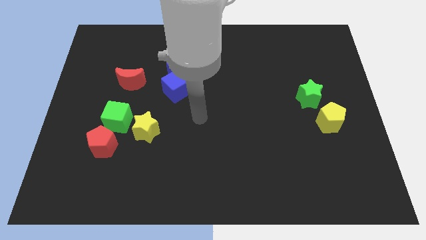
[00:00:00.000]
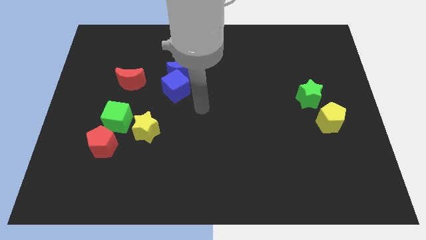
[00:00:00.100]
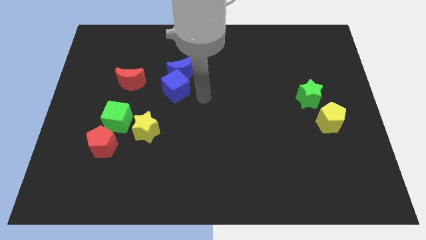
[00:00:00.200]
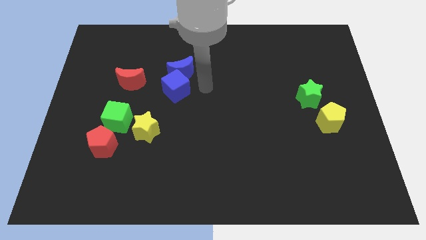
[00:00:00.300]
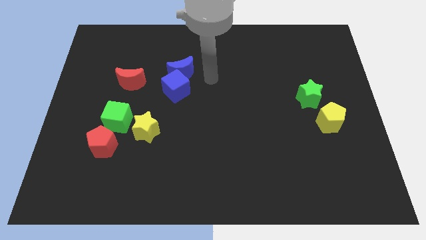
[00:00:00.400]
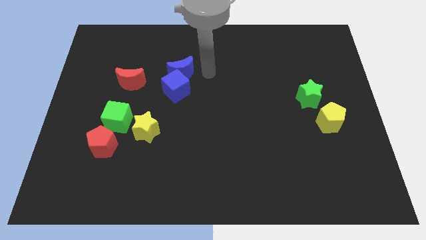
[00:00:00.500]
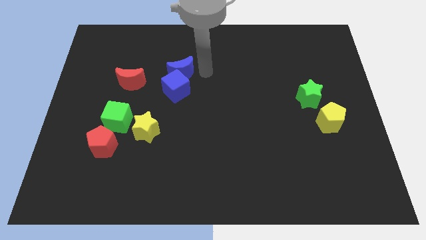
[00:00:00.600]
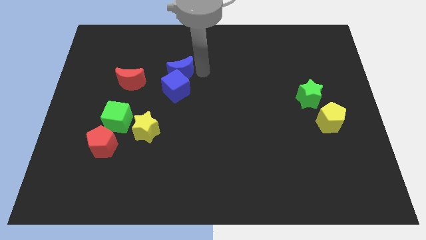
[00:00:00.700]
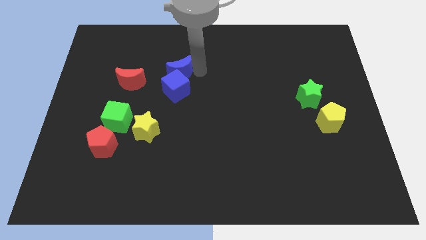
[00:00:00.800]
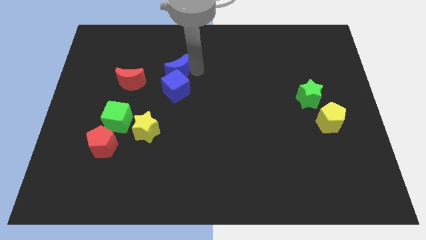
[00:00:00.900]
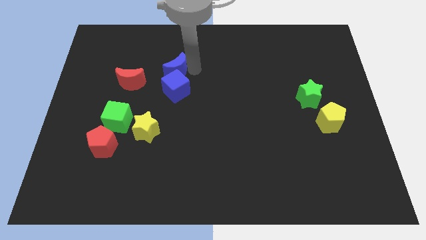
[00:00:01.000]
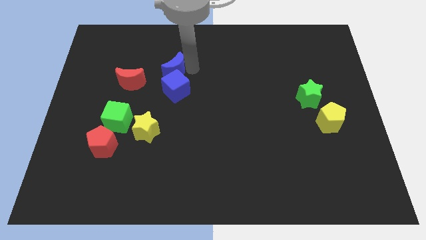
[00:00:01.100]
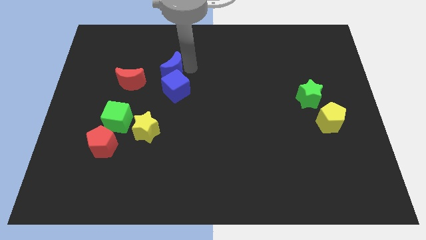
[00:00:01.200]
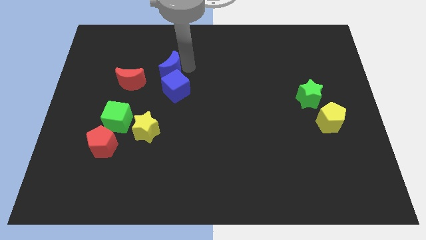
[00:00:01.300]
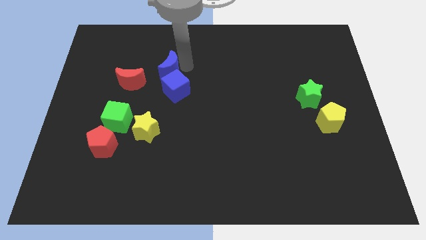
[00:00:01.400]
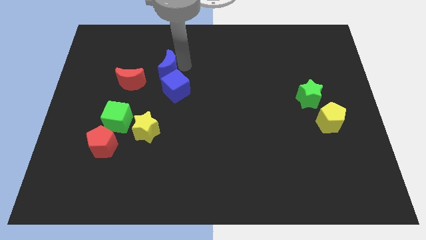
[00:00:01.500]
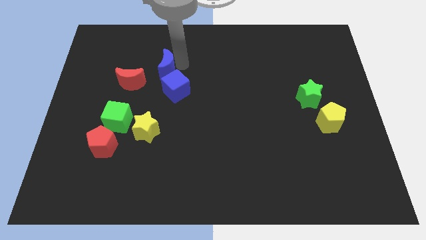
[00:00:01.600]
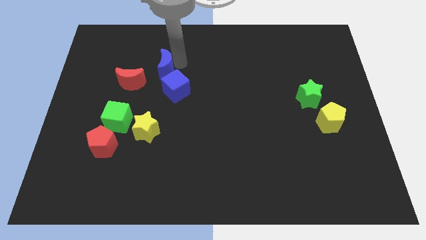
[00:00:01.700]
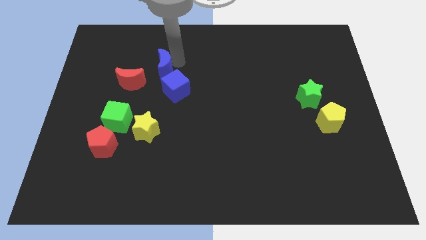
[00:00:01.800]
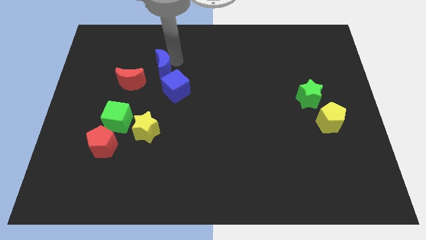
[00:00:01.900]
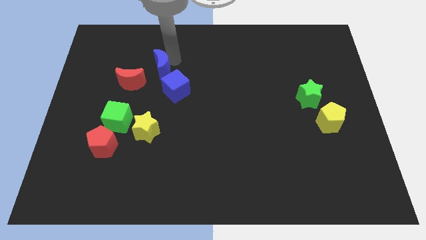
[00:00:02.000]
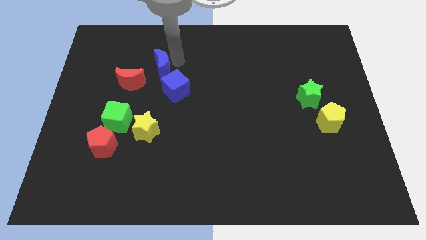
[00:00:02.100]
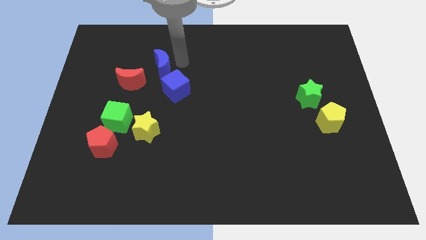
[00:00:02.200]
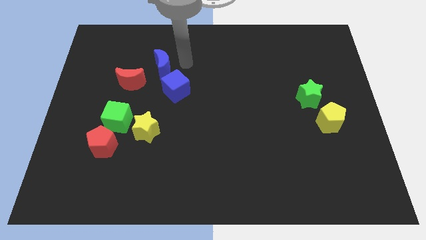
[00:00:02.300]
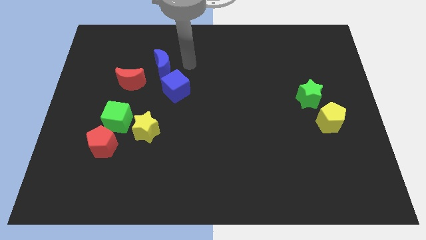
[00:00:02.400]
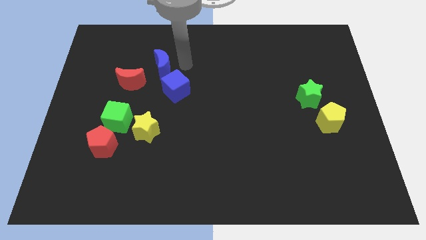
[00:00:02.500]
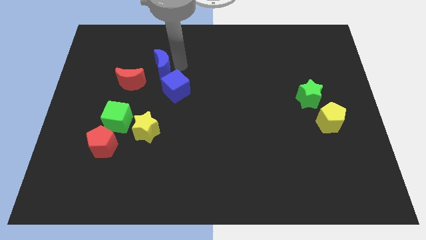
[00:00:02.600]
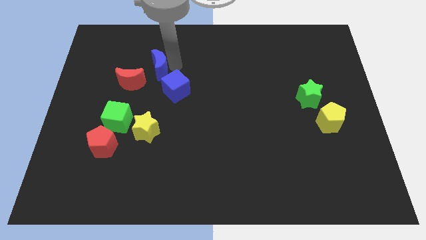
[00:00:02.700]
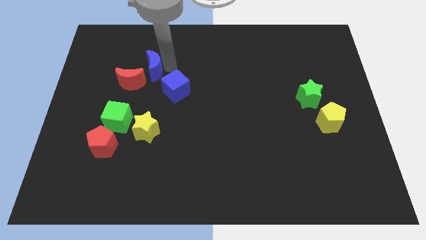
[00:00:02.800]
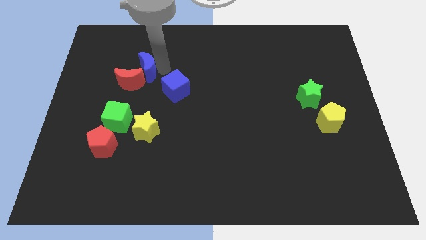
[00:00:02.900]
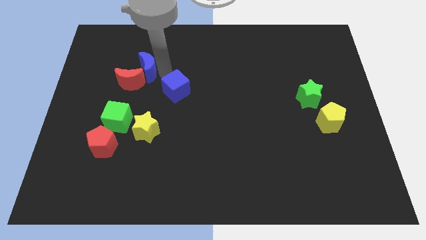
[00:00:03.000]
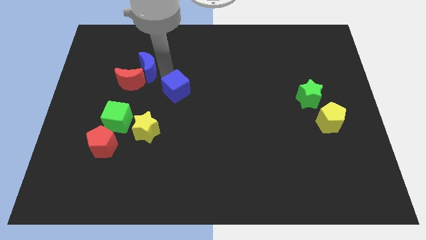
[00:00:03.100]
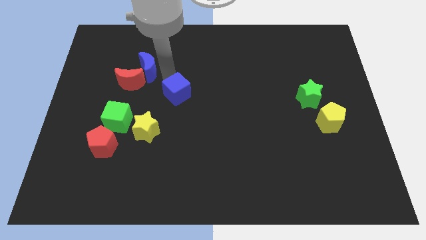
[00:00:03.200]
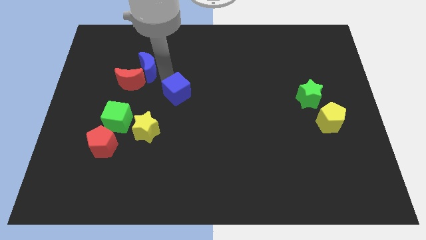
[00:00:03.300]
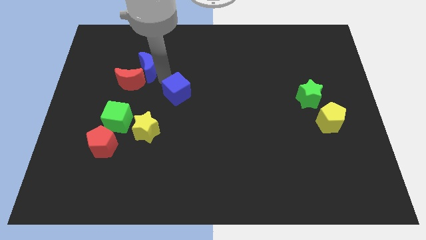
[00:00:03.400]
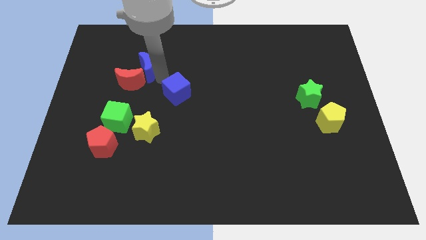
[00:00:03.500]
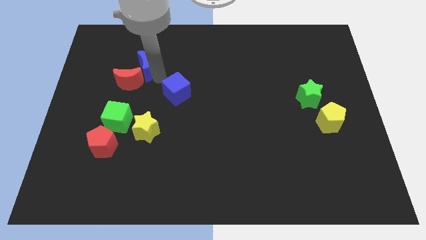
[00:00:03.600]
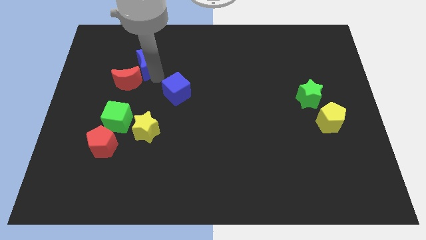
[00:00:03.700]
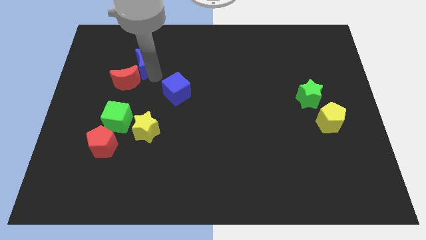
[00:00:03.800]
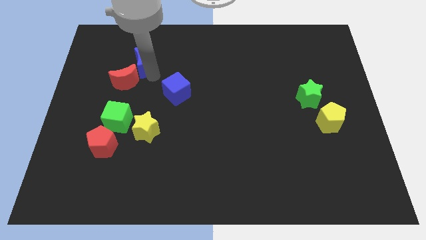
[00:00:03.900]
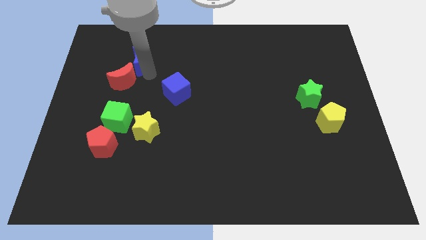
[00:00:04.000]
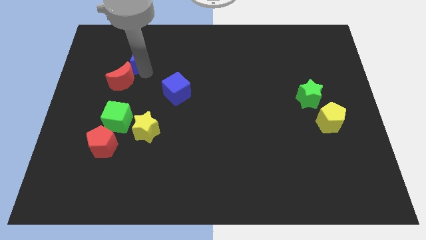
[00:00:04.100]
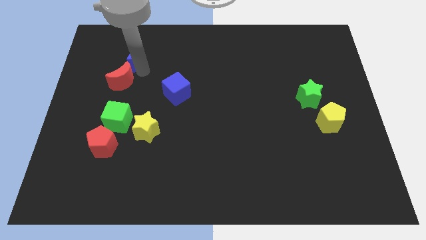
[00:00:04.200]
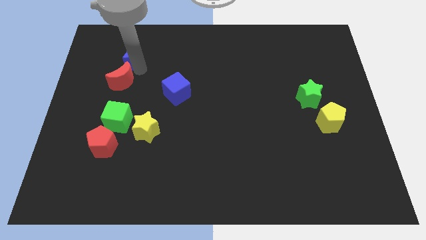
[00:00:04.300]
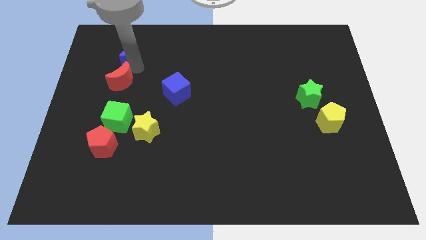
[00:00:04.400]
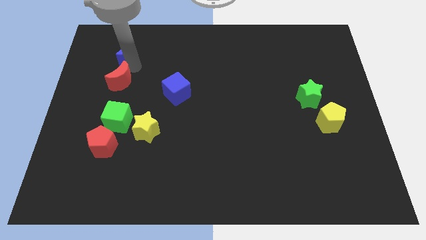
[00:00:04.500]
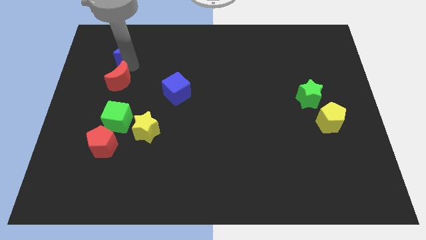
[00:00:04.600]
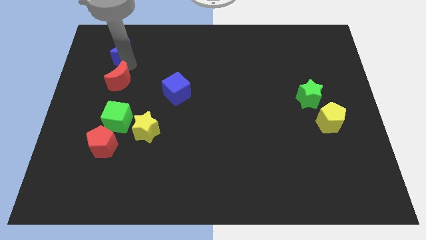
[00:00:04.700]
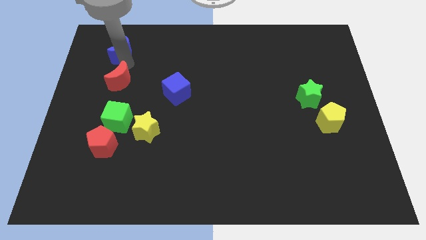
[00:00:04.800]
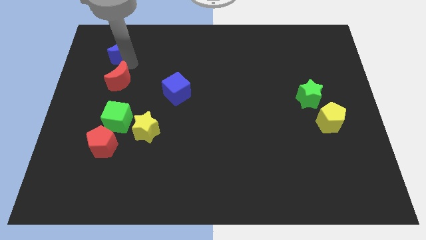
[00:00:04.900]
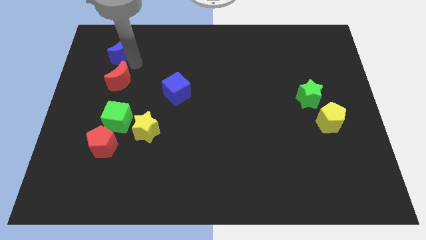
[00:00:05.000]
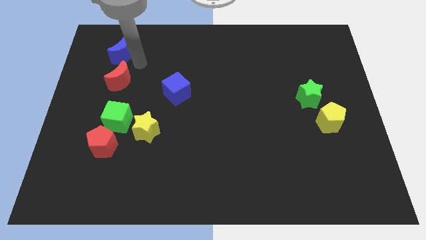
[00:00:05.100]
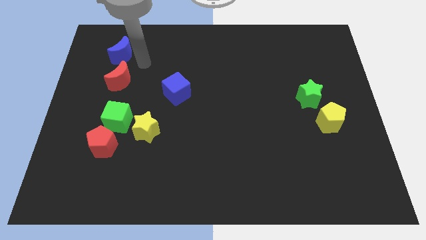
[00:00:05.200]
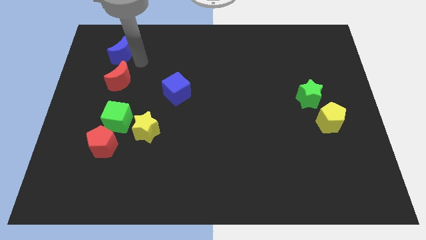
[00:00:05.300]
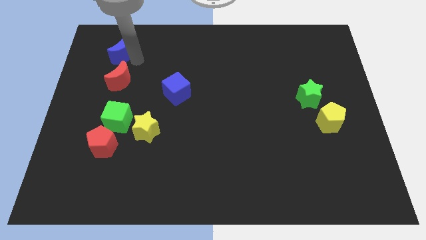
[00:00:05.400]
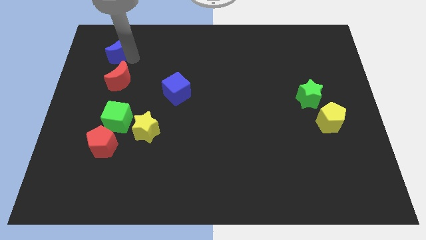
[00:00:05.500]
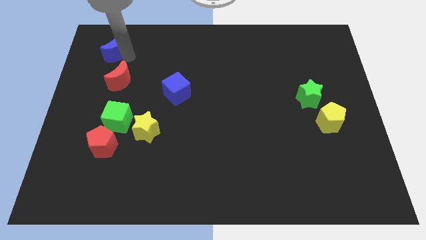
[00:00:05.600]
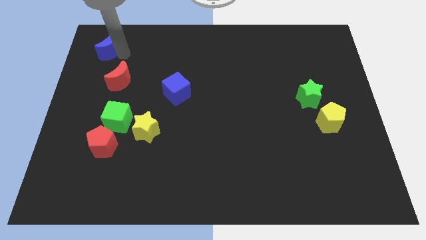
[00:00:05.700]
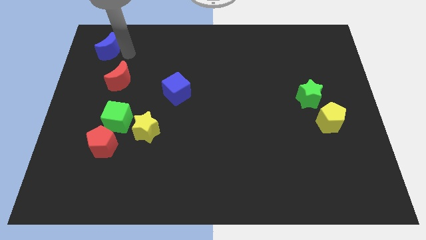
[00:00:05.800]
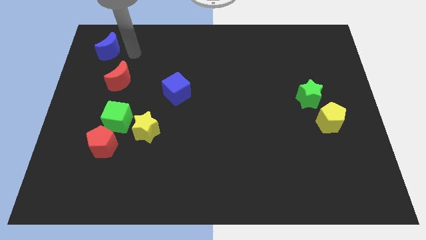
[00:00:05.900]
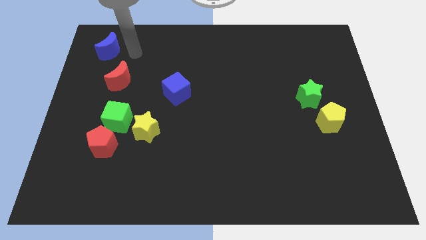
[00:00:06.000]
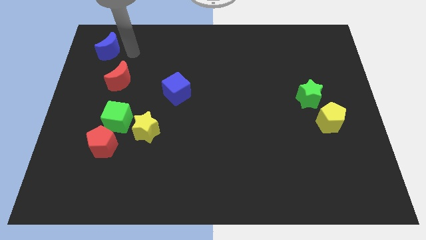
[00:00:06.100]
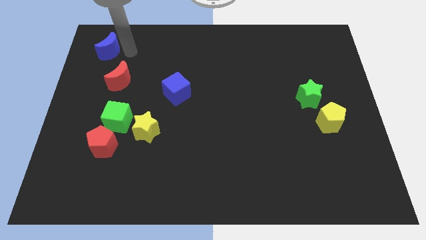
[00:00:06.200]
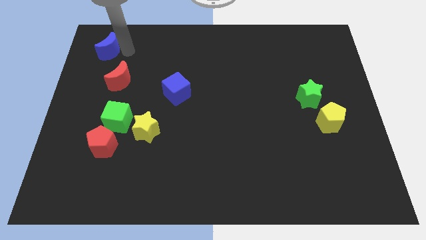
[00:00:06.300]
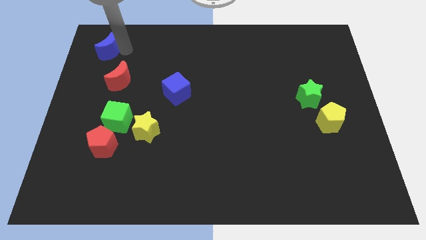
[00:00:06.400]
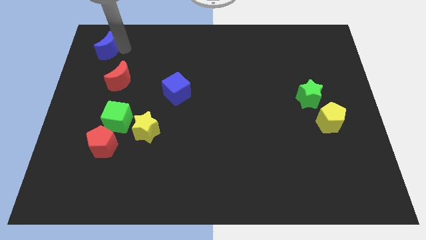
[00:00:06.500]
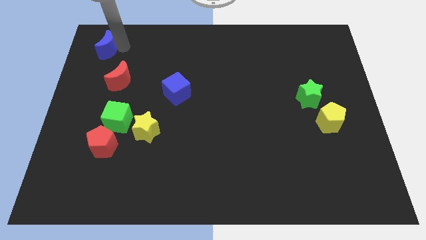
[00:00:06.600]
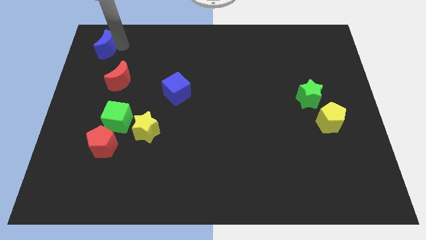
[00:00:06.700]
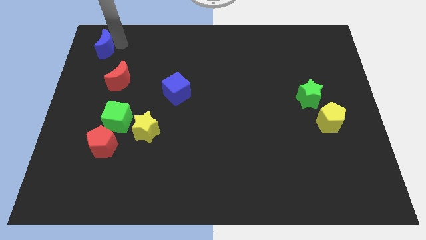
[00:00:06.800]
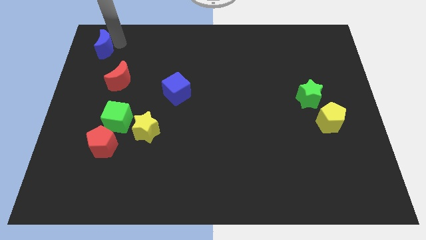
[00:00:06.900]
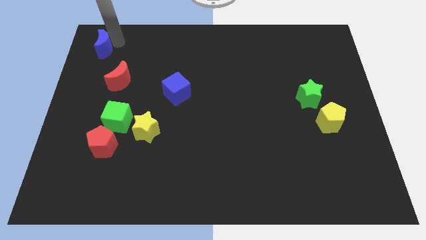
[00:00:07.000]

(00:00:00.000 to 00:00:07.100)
move the blue moon to the top left corner
